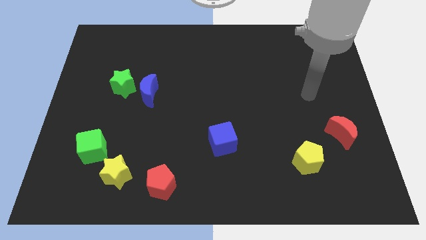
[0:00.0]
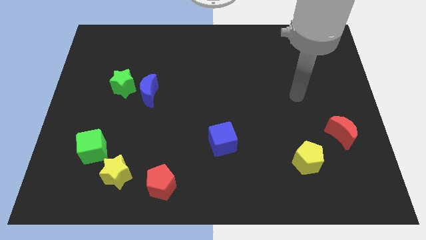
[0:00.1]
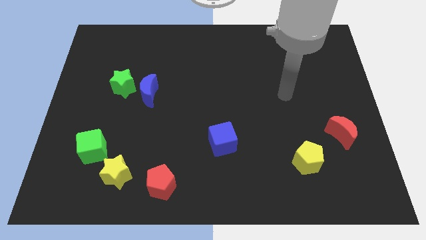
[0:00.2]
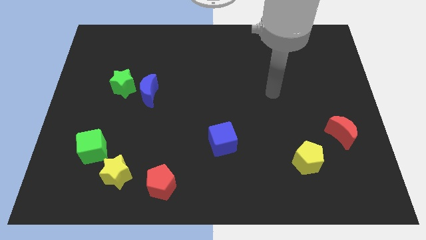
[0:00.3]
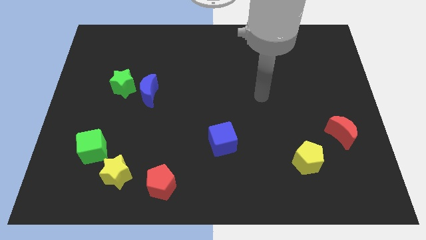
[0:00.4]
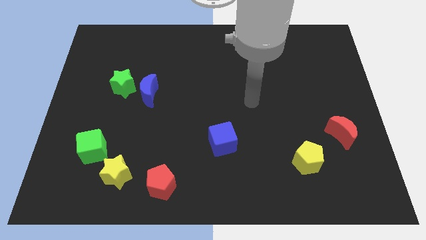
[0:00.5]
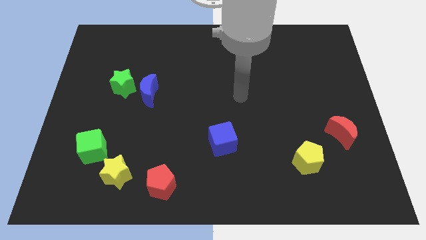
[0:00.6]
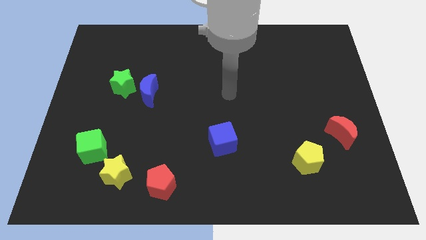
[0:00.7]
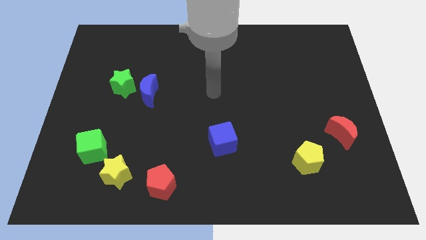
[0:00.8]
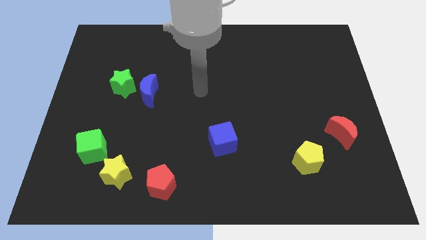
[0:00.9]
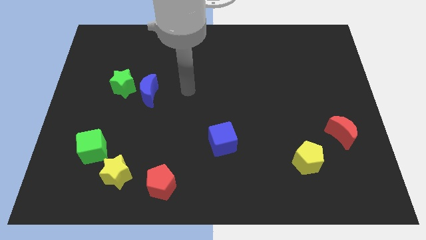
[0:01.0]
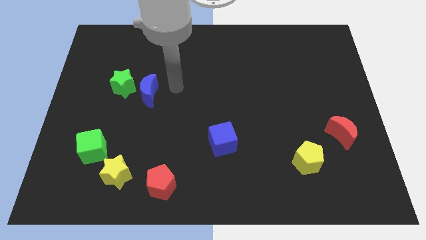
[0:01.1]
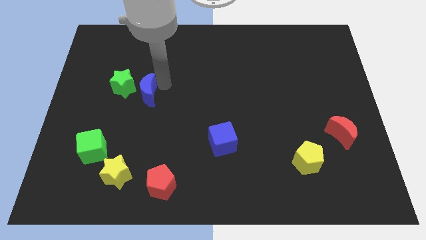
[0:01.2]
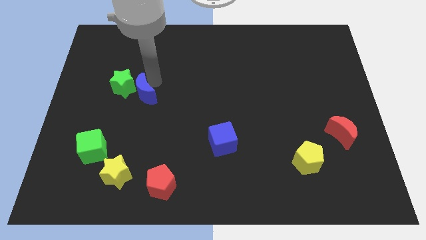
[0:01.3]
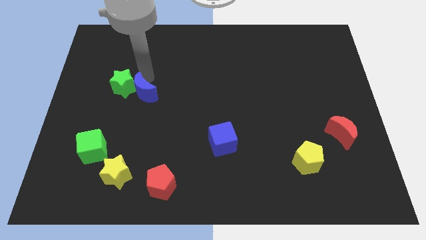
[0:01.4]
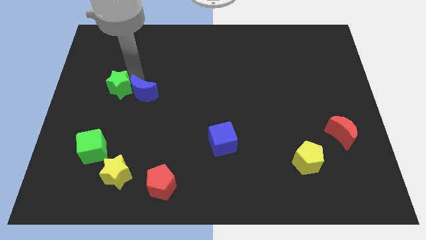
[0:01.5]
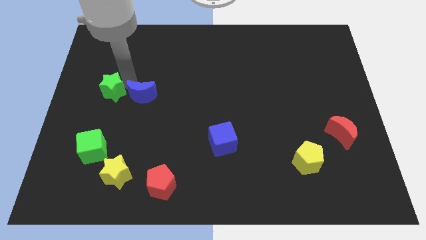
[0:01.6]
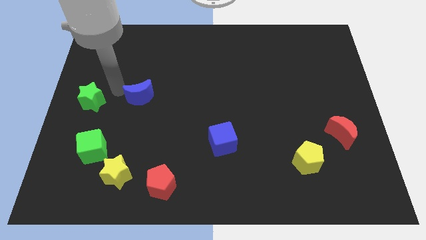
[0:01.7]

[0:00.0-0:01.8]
pull the blue moon apart from the green star

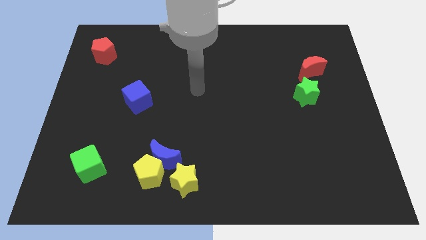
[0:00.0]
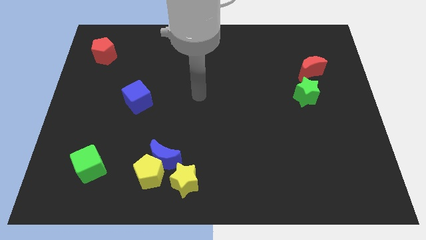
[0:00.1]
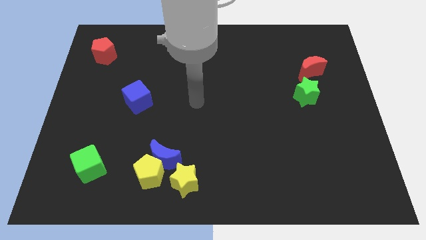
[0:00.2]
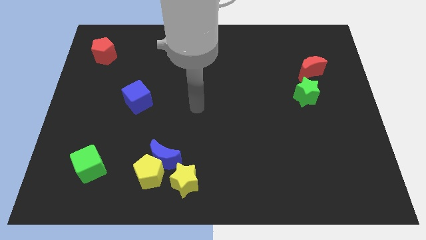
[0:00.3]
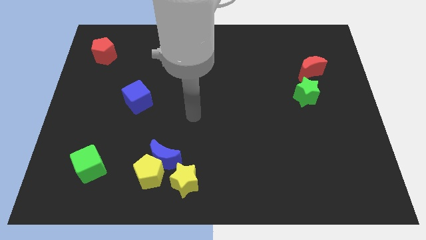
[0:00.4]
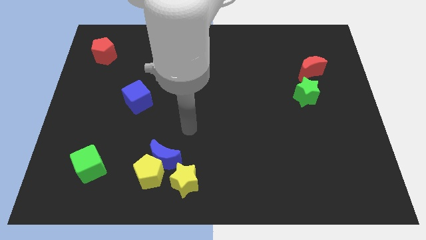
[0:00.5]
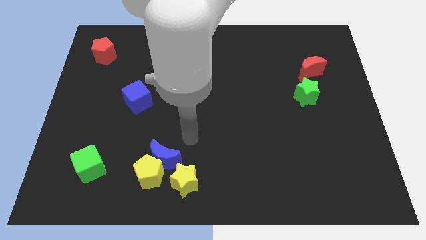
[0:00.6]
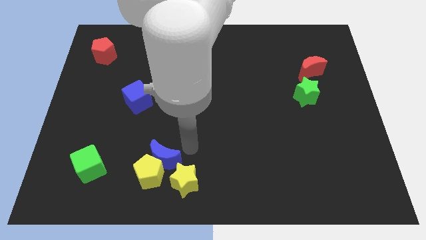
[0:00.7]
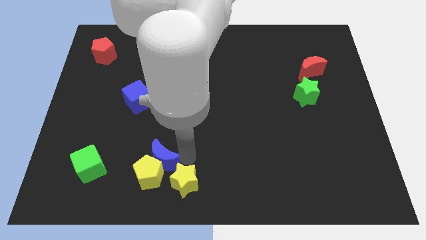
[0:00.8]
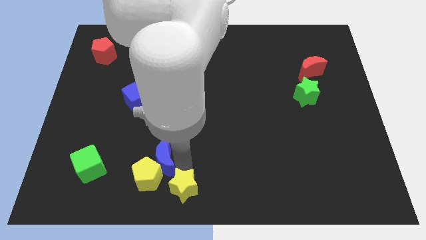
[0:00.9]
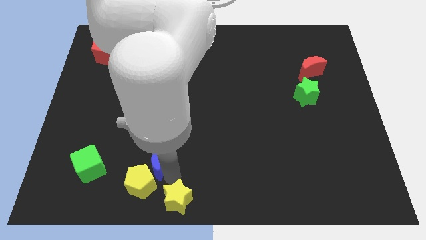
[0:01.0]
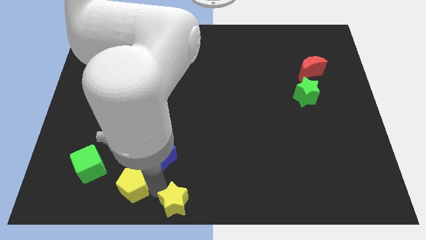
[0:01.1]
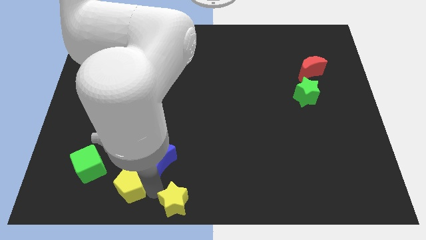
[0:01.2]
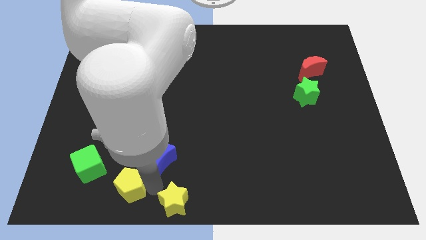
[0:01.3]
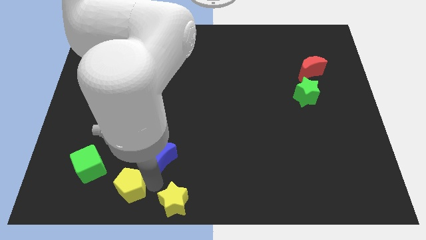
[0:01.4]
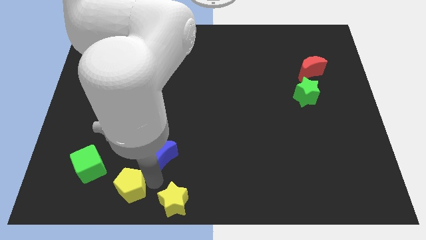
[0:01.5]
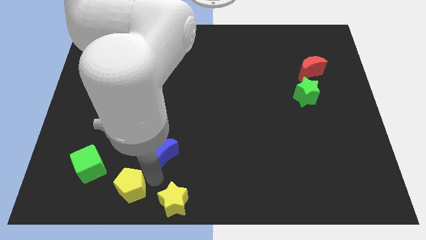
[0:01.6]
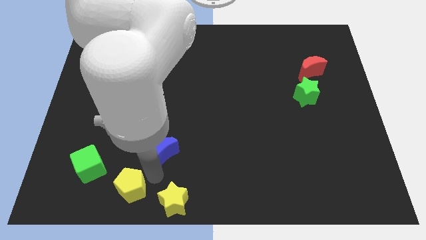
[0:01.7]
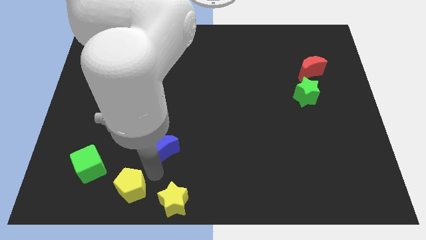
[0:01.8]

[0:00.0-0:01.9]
separate the blue moon from the yellow pentagon and yellow star

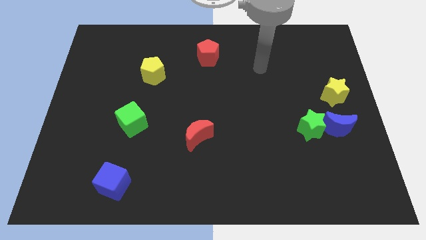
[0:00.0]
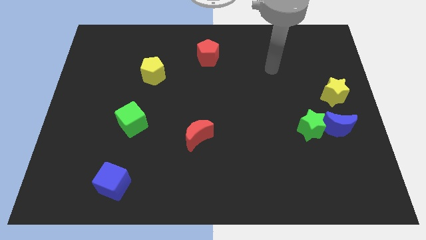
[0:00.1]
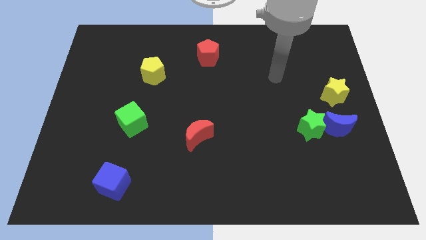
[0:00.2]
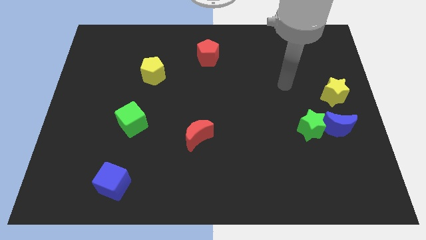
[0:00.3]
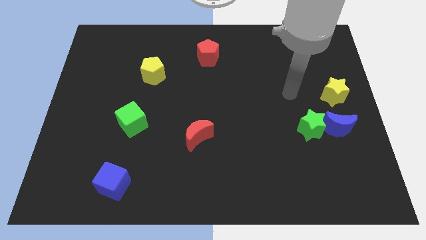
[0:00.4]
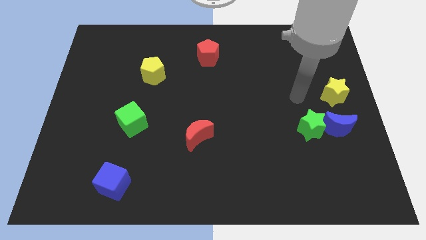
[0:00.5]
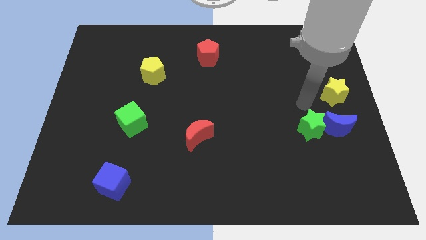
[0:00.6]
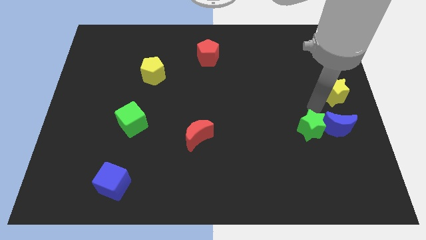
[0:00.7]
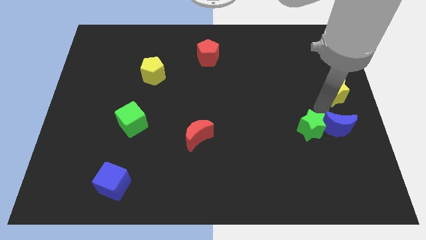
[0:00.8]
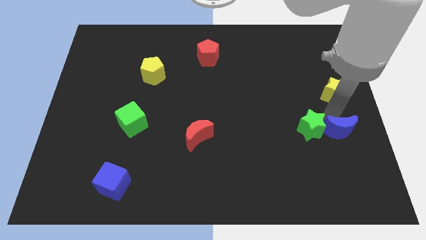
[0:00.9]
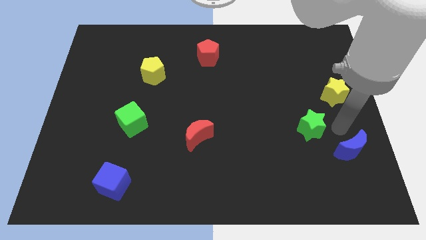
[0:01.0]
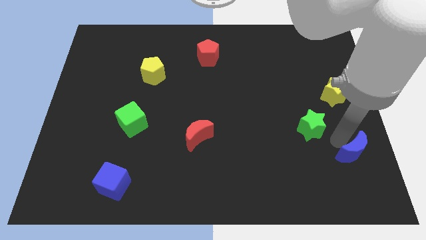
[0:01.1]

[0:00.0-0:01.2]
separate the green star from the blue moon

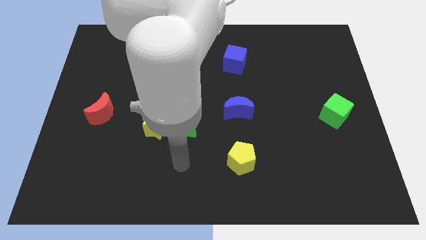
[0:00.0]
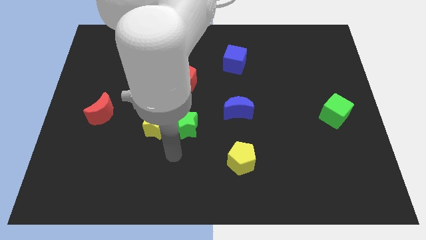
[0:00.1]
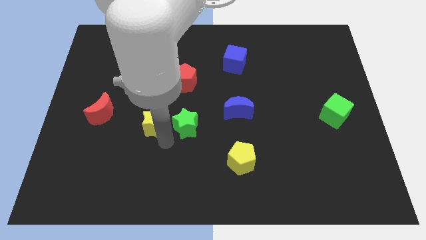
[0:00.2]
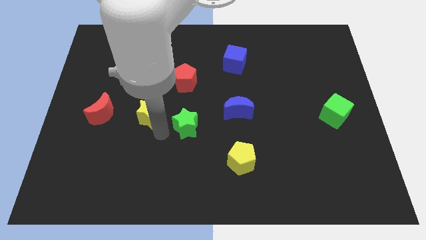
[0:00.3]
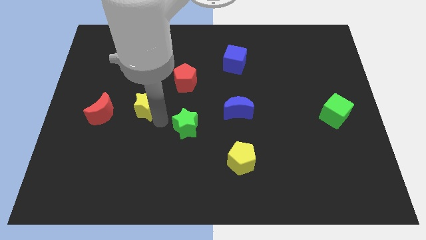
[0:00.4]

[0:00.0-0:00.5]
move the green star away from the yellow star

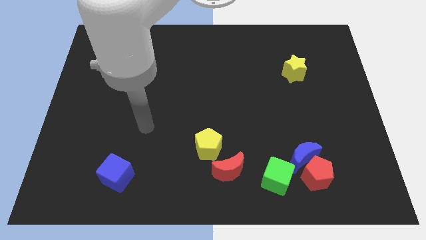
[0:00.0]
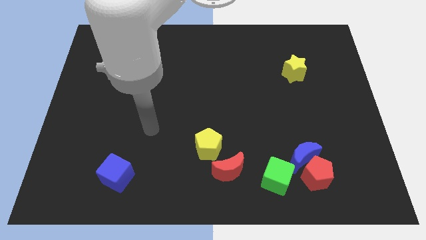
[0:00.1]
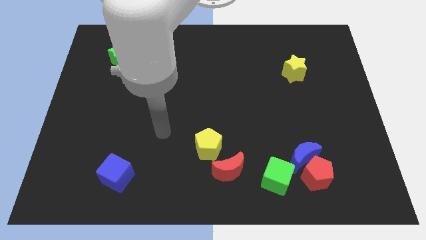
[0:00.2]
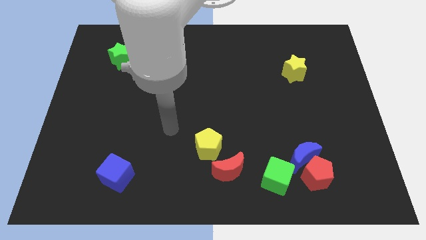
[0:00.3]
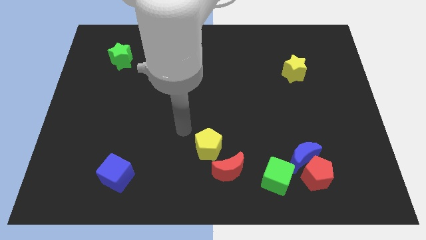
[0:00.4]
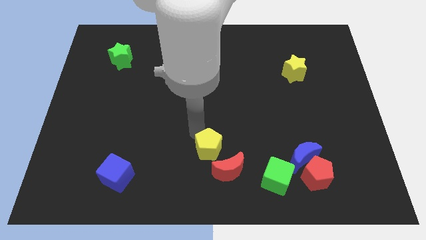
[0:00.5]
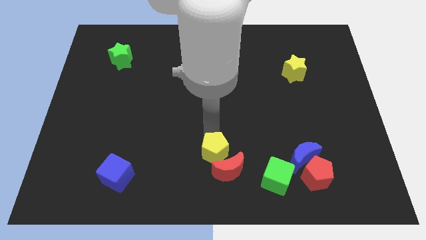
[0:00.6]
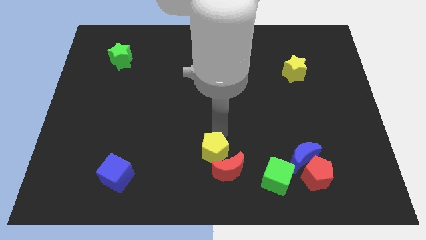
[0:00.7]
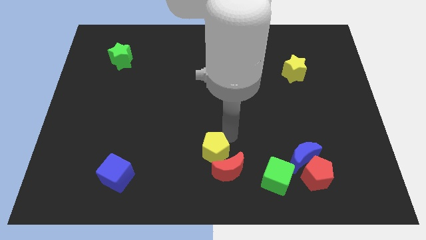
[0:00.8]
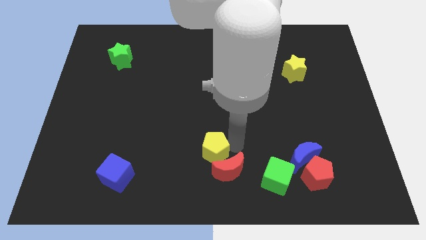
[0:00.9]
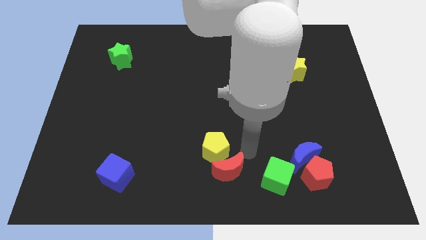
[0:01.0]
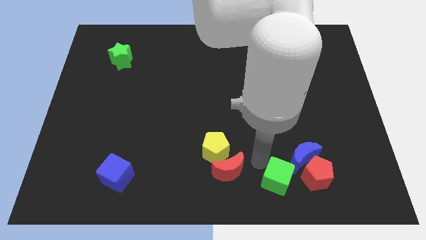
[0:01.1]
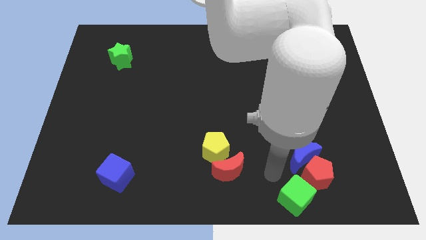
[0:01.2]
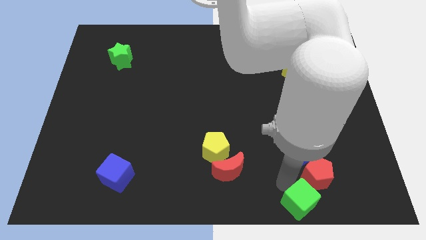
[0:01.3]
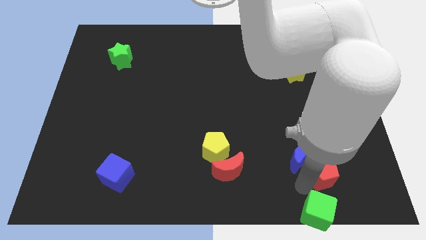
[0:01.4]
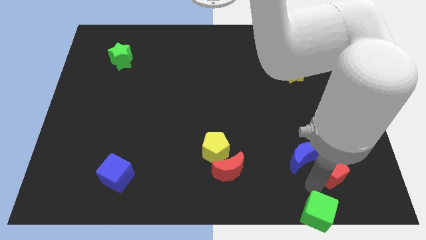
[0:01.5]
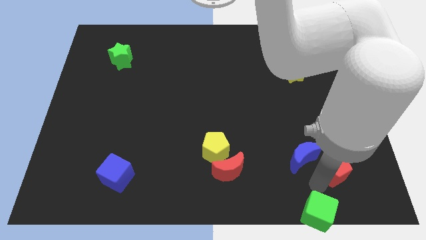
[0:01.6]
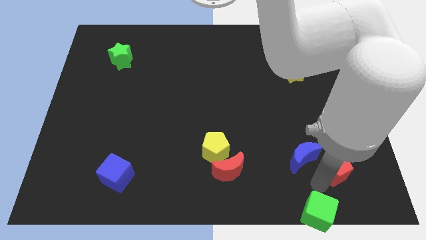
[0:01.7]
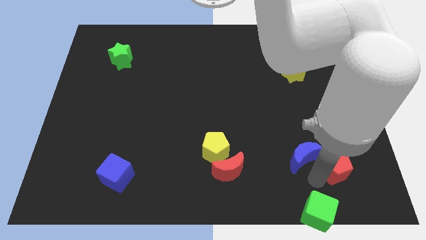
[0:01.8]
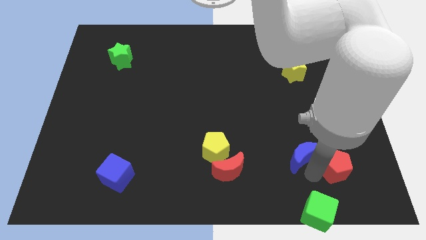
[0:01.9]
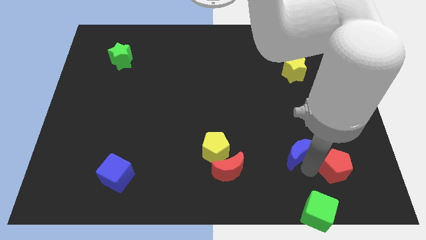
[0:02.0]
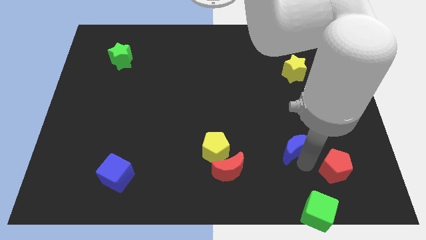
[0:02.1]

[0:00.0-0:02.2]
pull the blue moon apart from the red pentagon and green cube

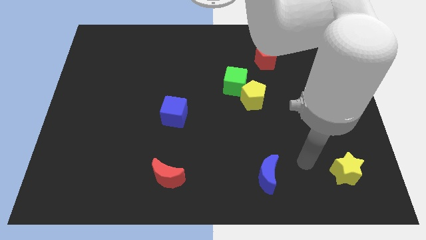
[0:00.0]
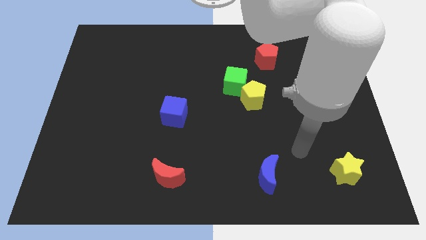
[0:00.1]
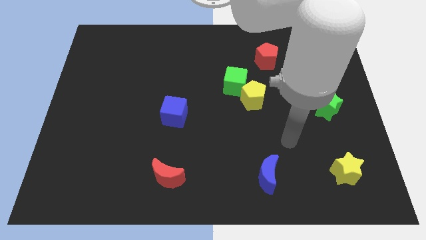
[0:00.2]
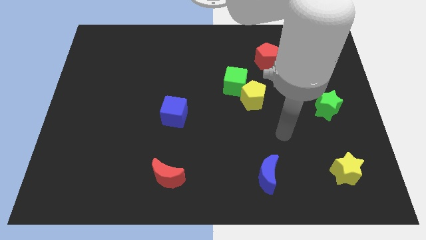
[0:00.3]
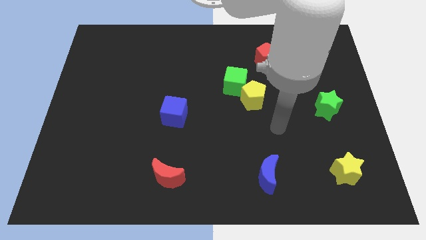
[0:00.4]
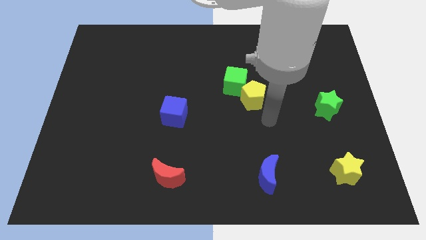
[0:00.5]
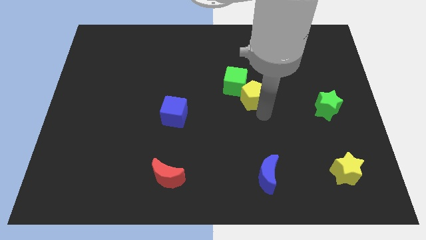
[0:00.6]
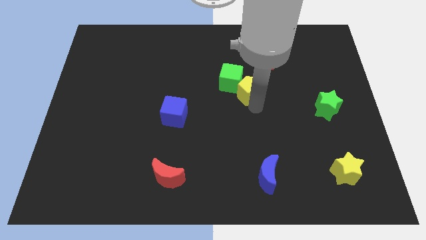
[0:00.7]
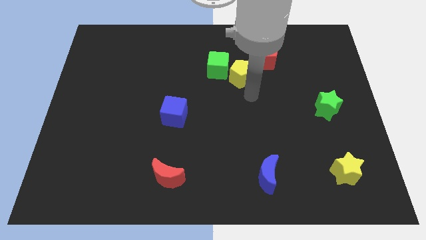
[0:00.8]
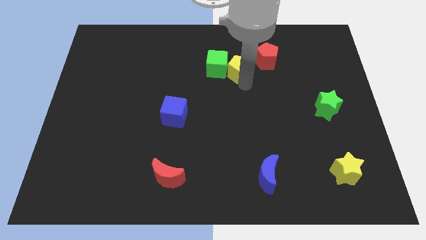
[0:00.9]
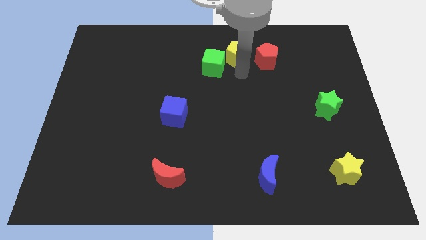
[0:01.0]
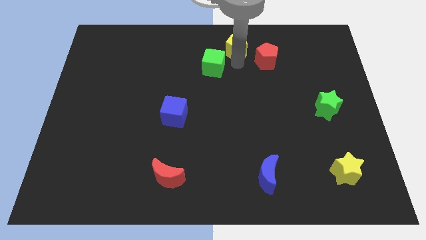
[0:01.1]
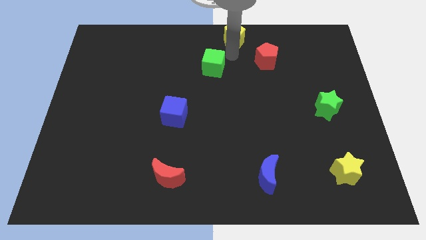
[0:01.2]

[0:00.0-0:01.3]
separate the green cube from the yellow pentagon

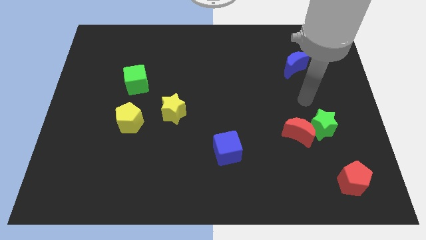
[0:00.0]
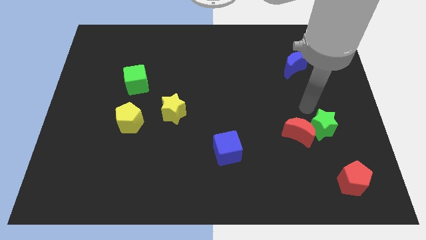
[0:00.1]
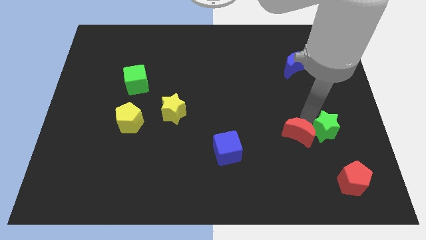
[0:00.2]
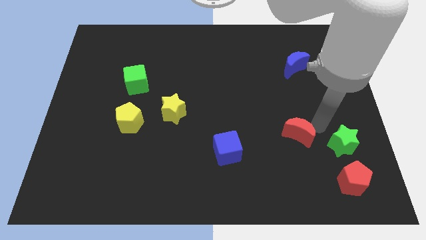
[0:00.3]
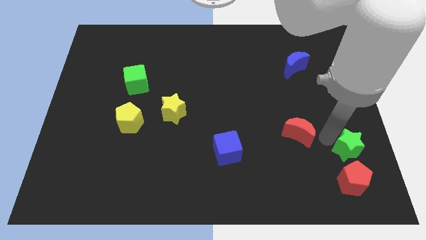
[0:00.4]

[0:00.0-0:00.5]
pull the red moon apart from the green star
